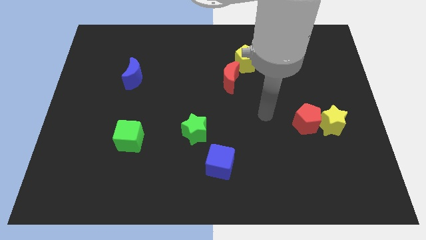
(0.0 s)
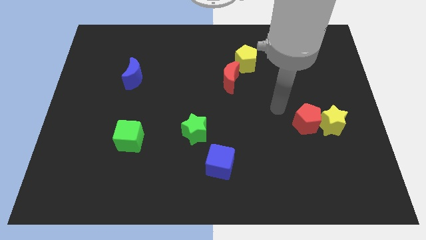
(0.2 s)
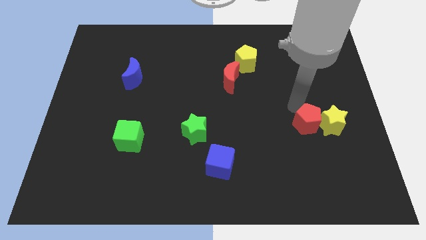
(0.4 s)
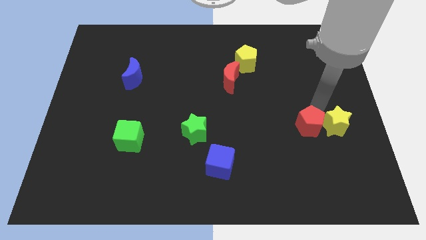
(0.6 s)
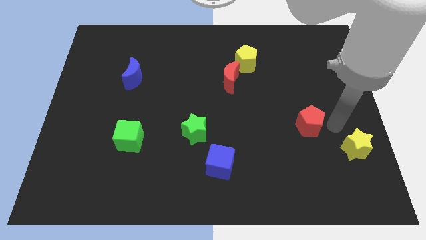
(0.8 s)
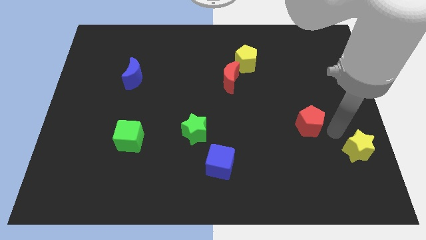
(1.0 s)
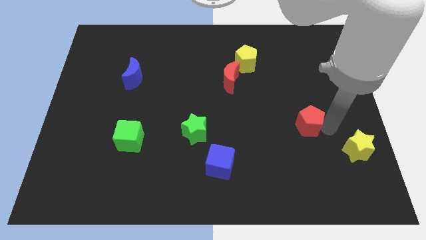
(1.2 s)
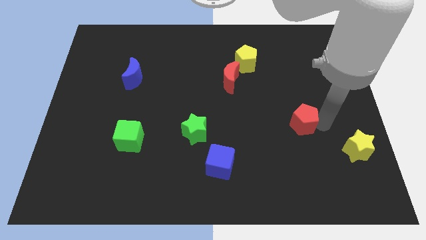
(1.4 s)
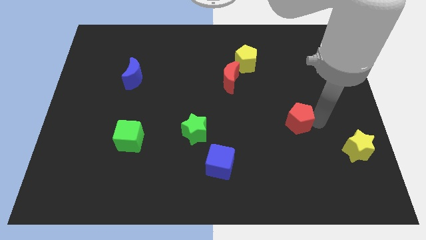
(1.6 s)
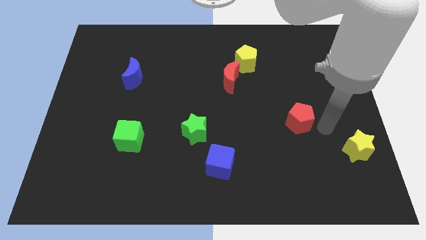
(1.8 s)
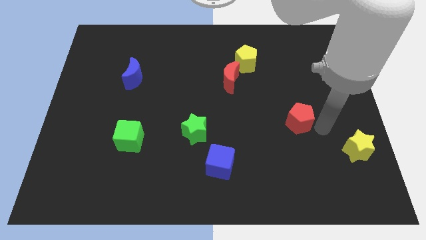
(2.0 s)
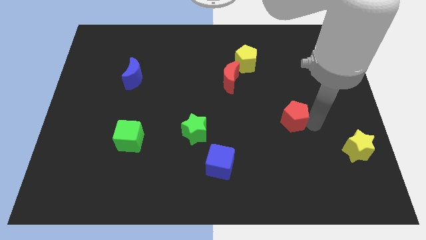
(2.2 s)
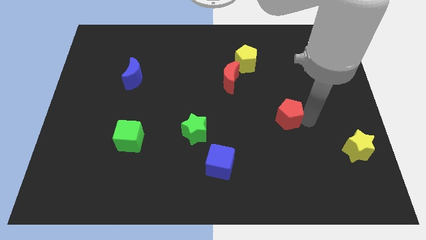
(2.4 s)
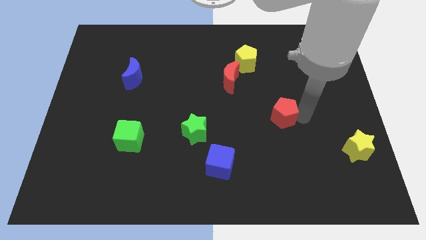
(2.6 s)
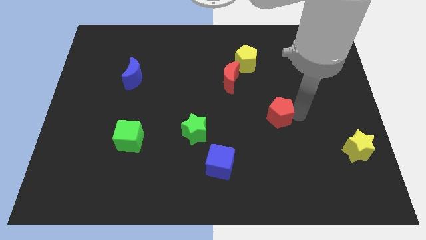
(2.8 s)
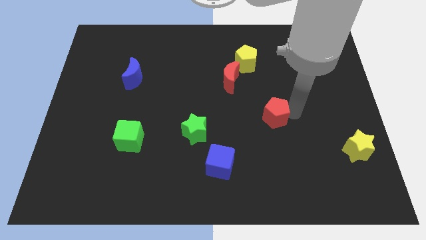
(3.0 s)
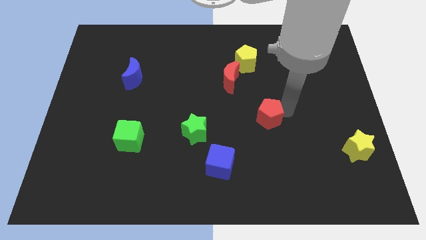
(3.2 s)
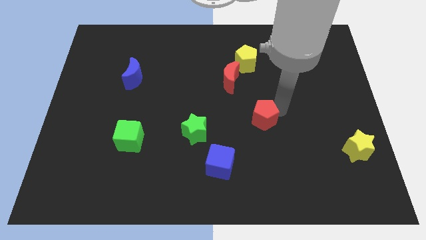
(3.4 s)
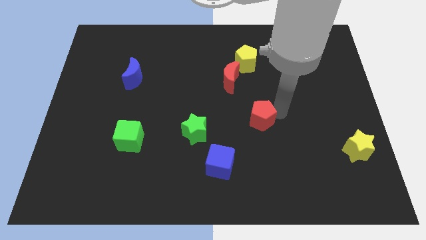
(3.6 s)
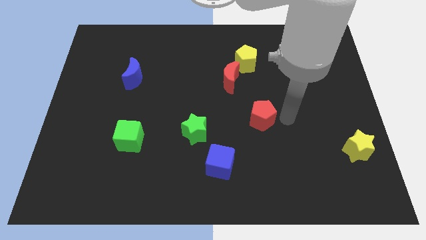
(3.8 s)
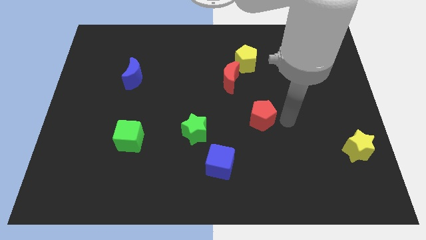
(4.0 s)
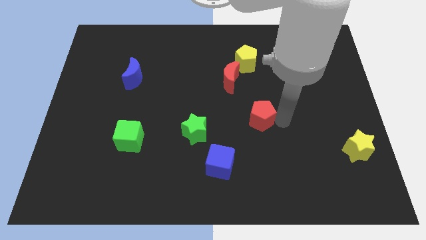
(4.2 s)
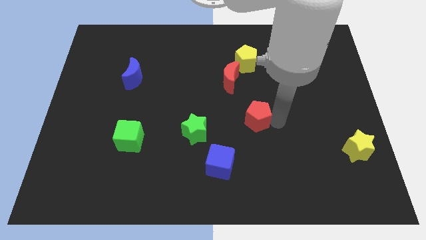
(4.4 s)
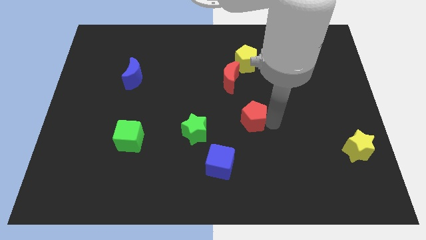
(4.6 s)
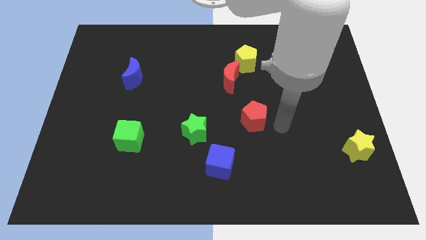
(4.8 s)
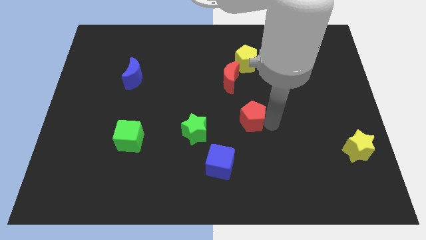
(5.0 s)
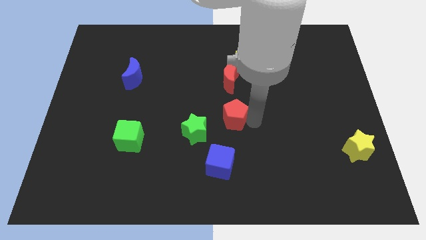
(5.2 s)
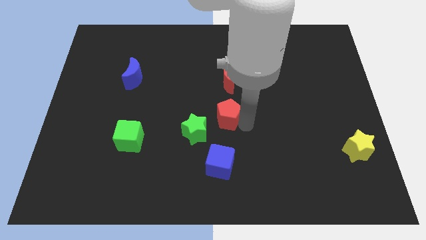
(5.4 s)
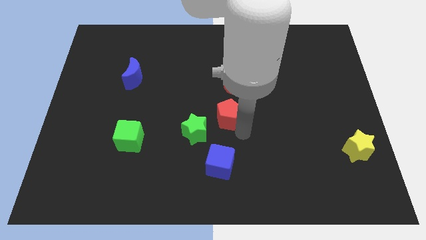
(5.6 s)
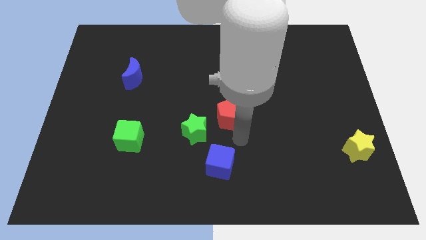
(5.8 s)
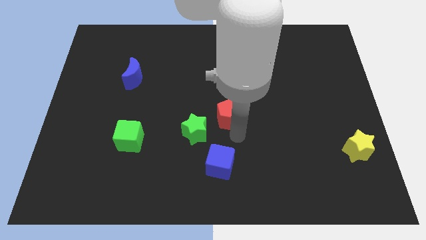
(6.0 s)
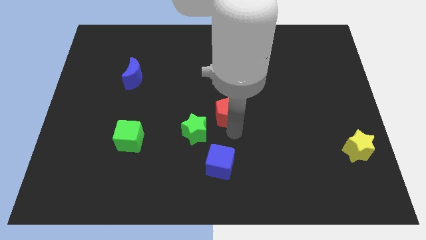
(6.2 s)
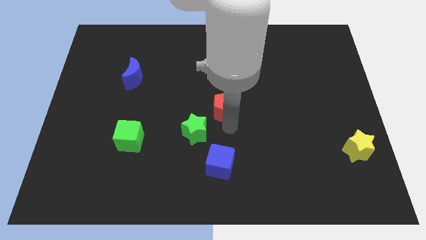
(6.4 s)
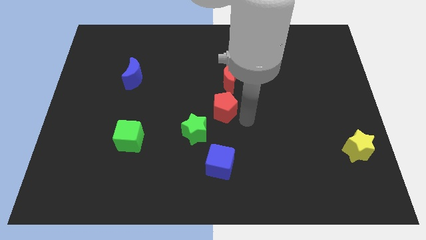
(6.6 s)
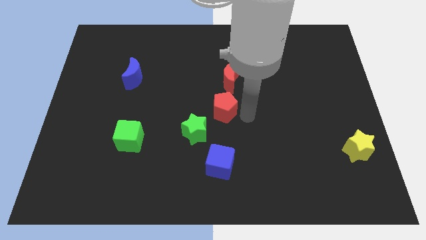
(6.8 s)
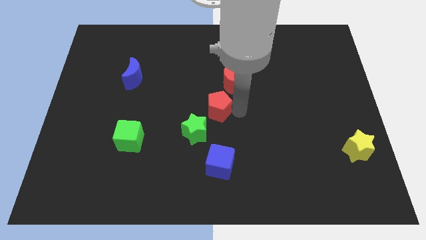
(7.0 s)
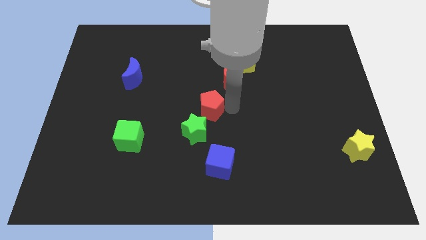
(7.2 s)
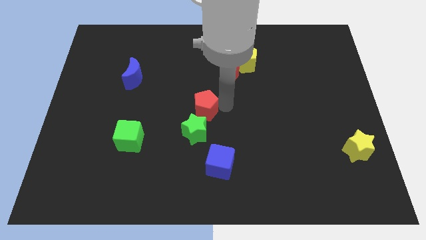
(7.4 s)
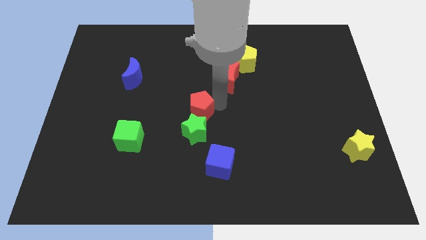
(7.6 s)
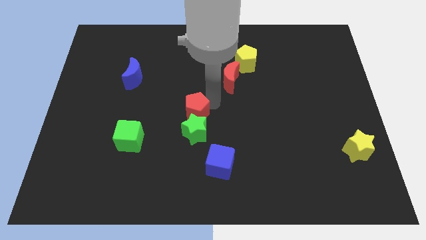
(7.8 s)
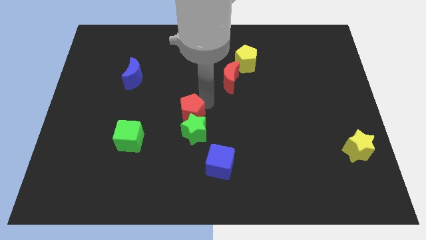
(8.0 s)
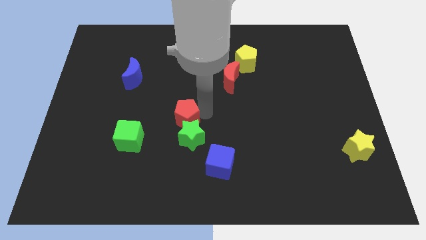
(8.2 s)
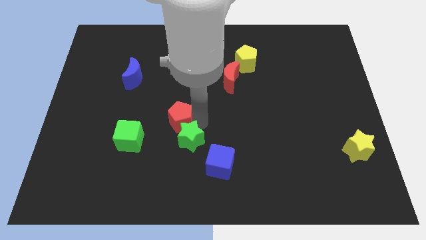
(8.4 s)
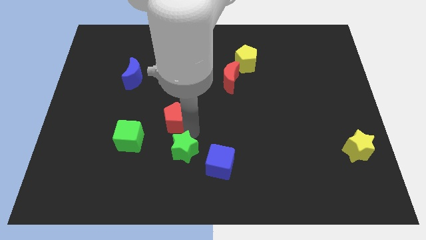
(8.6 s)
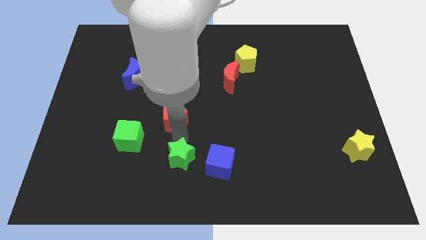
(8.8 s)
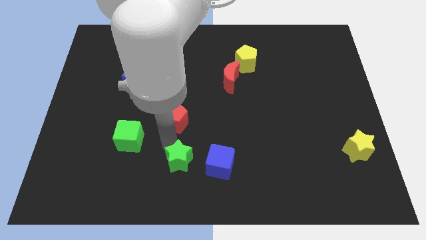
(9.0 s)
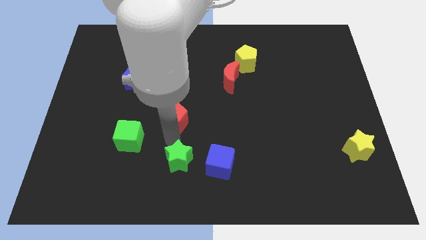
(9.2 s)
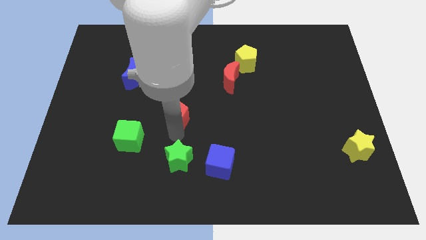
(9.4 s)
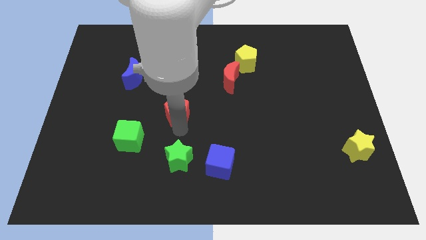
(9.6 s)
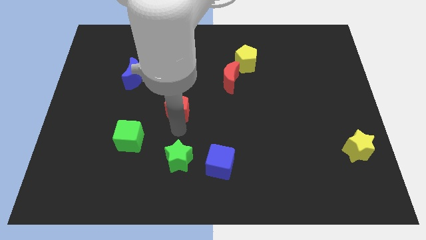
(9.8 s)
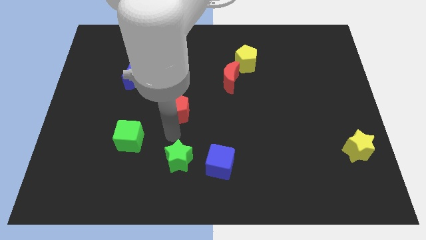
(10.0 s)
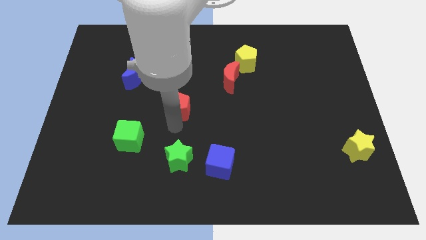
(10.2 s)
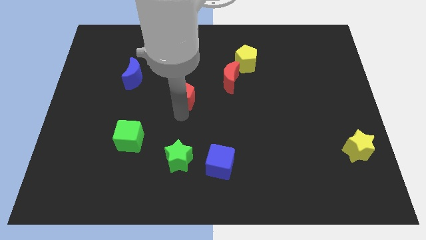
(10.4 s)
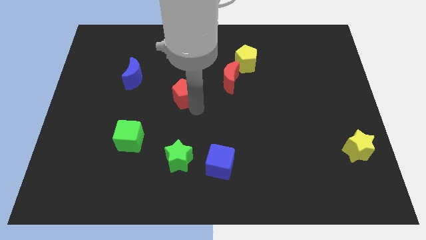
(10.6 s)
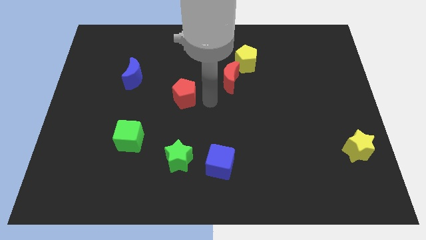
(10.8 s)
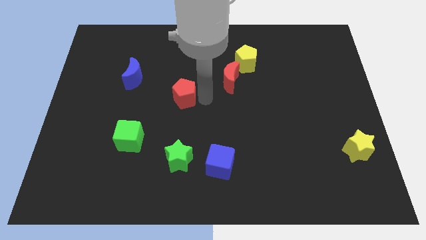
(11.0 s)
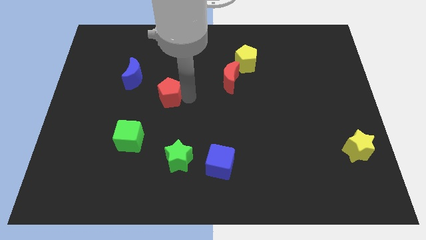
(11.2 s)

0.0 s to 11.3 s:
move the red pentagon to the bottom right side of the blue moon

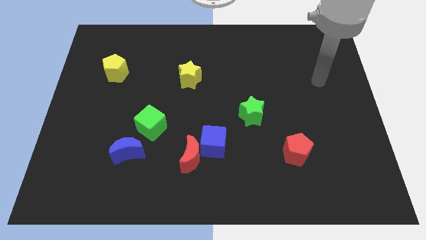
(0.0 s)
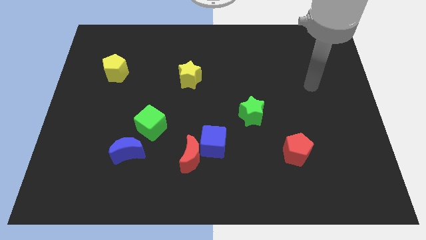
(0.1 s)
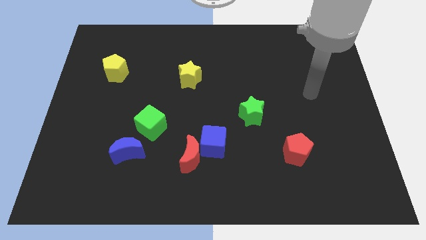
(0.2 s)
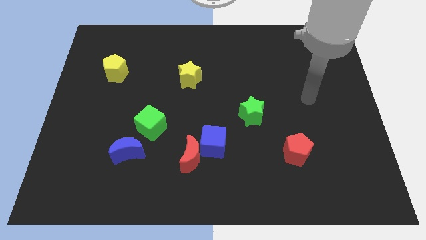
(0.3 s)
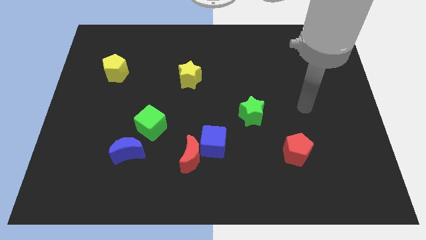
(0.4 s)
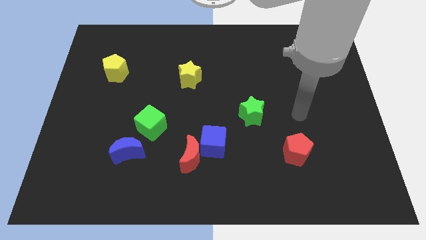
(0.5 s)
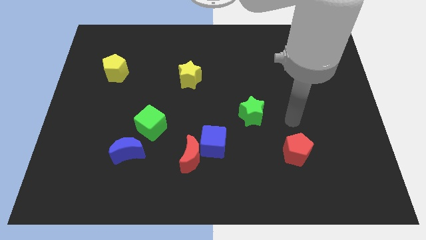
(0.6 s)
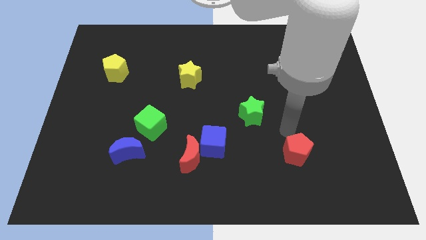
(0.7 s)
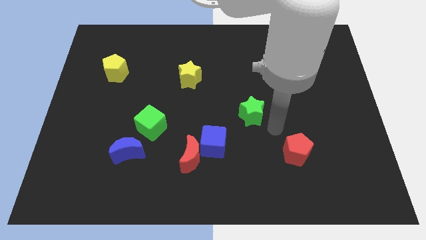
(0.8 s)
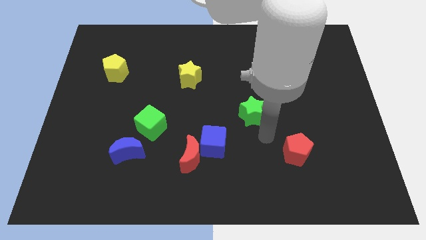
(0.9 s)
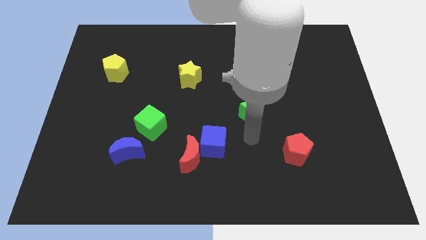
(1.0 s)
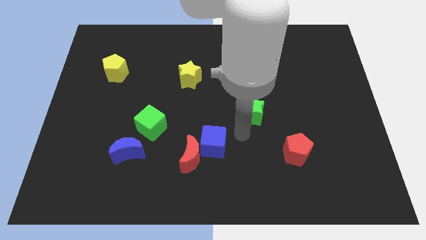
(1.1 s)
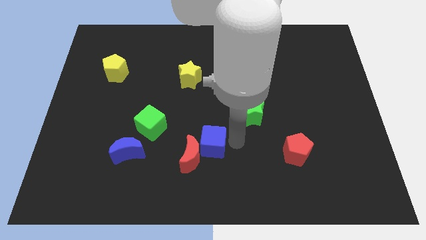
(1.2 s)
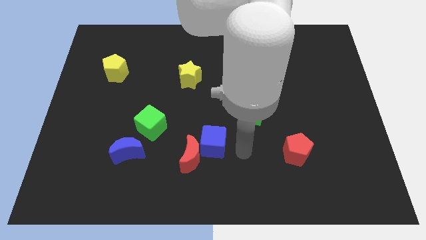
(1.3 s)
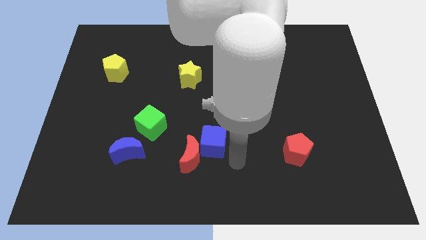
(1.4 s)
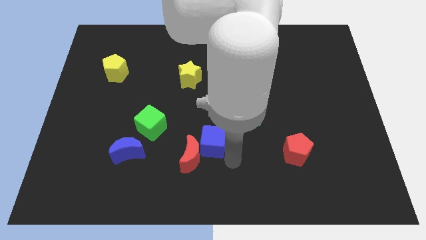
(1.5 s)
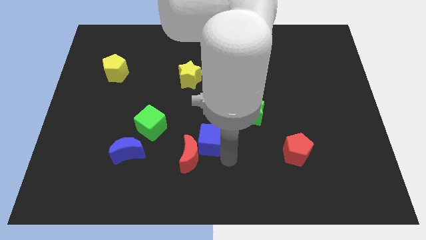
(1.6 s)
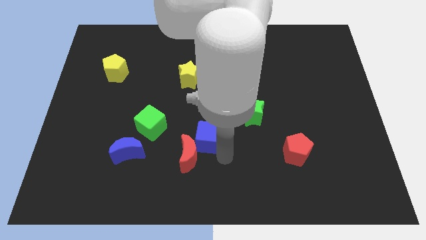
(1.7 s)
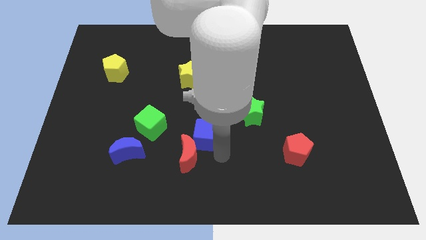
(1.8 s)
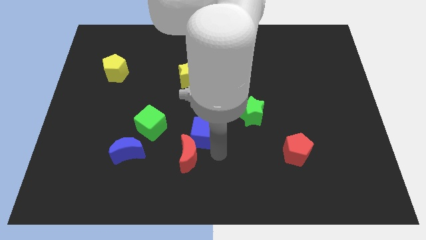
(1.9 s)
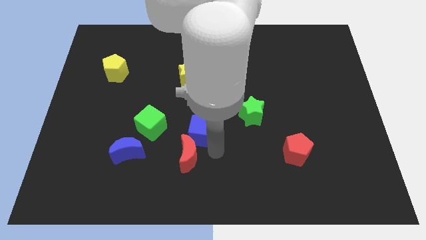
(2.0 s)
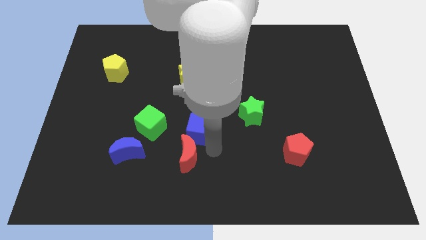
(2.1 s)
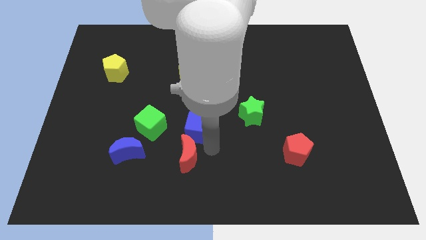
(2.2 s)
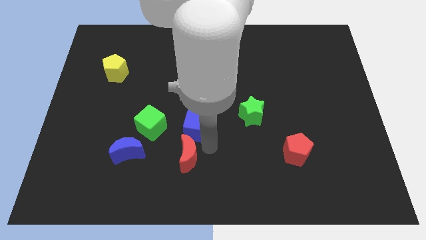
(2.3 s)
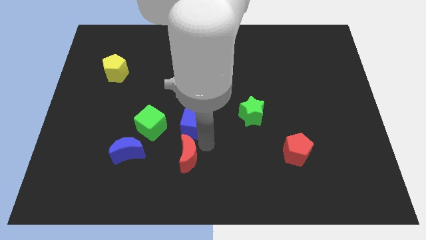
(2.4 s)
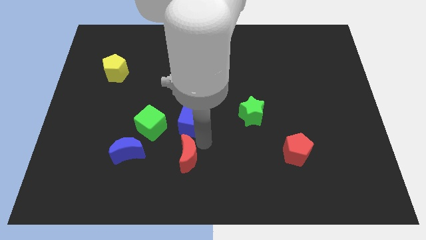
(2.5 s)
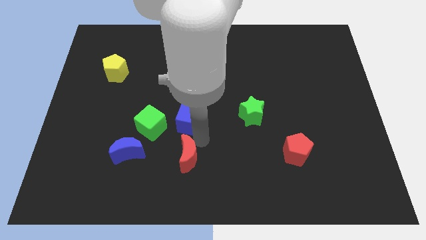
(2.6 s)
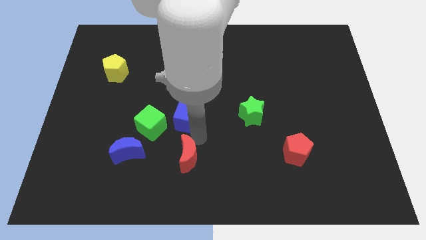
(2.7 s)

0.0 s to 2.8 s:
move the blue cube to the top right of the green cube
